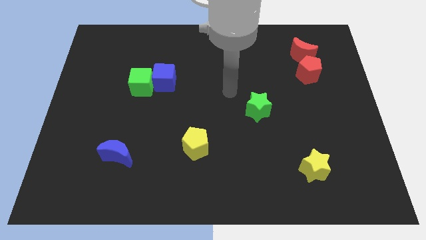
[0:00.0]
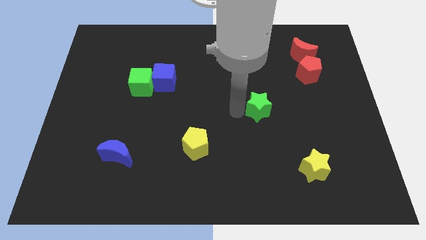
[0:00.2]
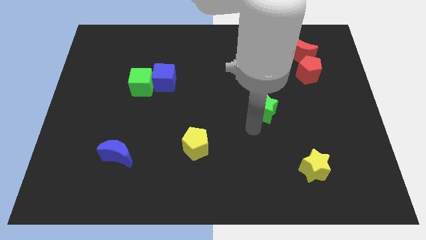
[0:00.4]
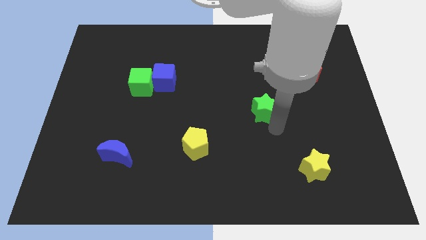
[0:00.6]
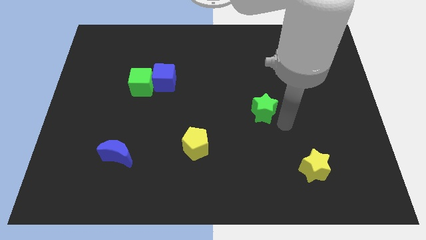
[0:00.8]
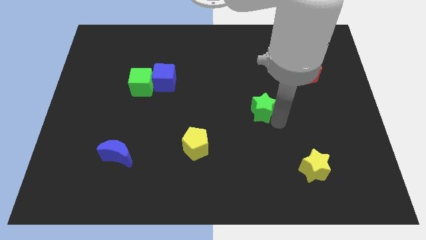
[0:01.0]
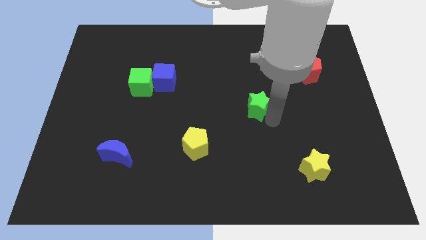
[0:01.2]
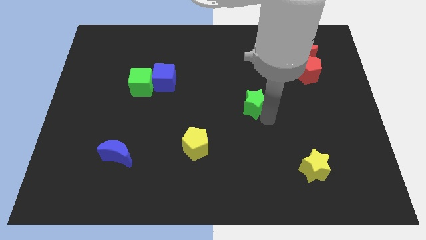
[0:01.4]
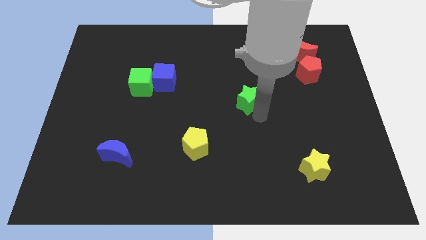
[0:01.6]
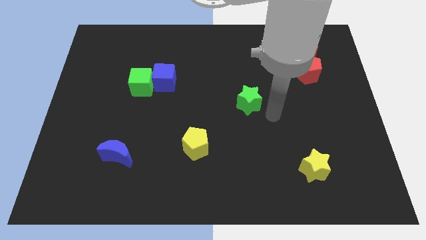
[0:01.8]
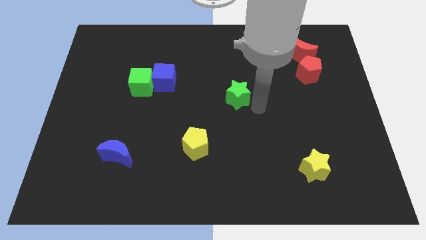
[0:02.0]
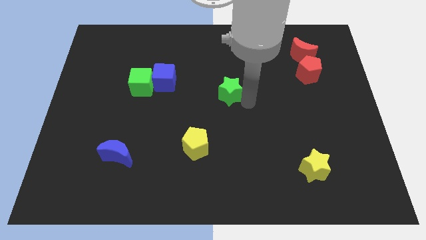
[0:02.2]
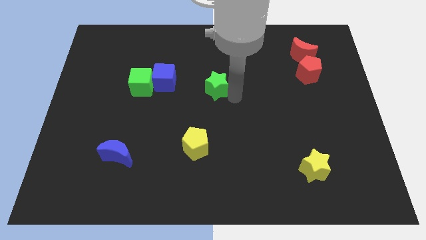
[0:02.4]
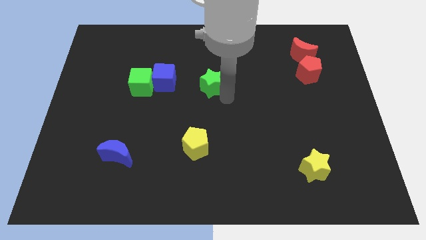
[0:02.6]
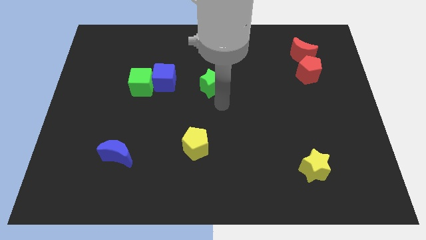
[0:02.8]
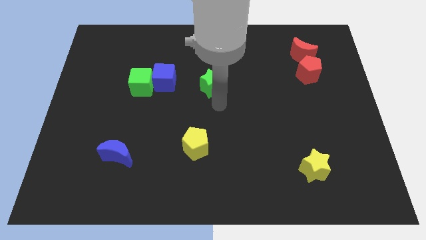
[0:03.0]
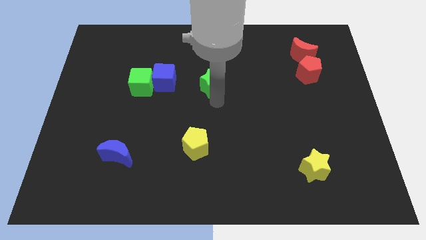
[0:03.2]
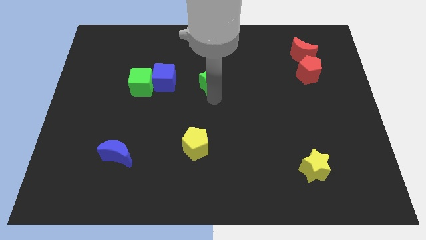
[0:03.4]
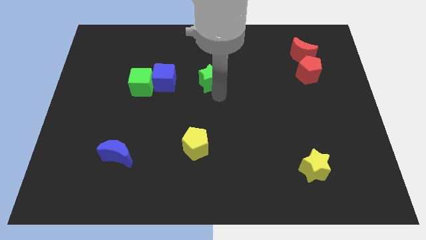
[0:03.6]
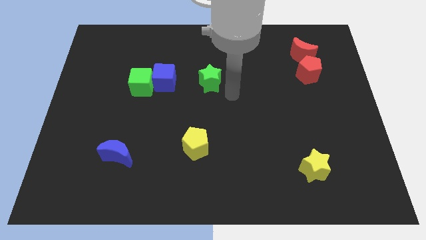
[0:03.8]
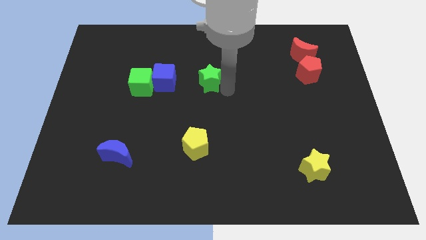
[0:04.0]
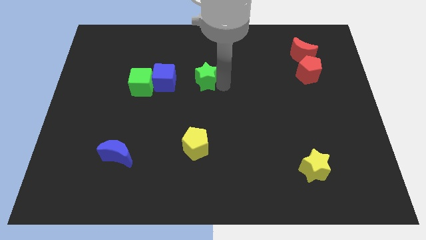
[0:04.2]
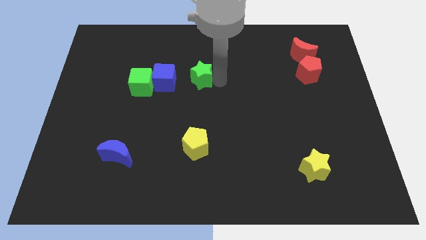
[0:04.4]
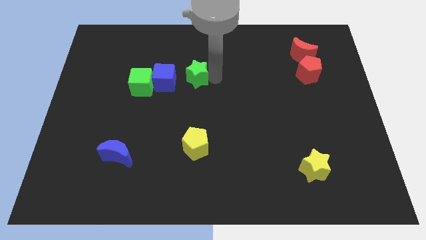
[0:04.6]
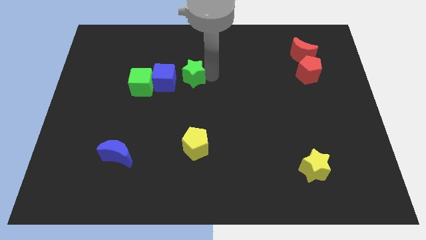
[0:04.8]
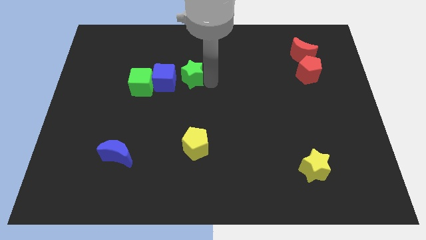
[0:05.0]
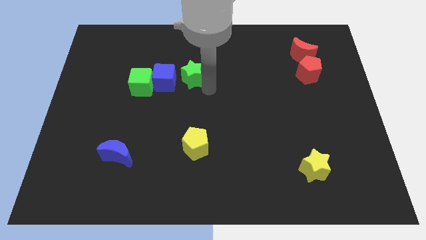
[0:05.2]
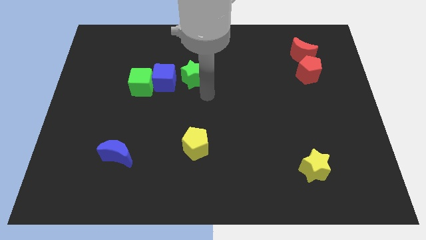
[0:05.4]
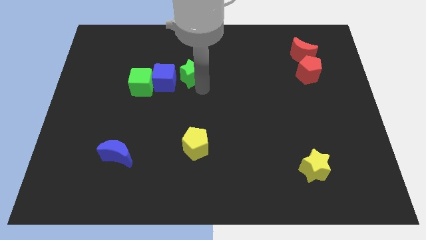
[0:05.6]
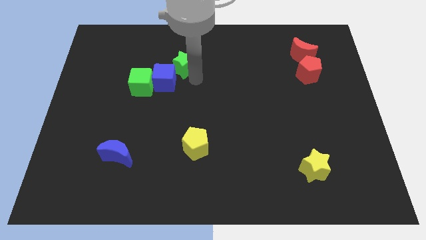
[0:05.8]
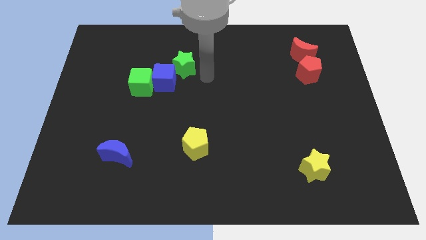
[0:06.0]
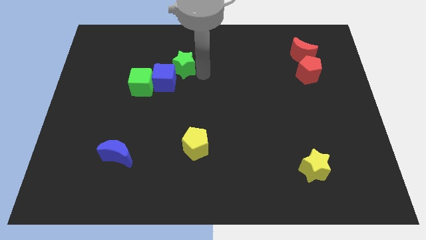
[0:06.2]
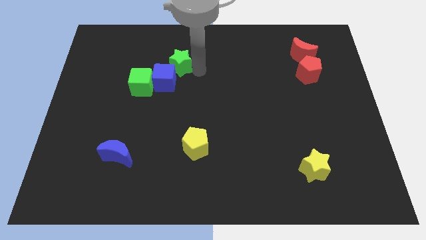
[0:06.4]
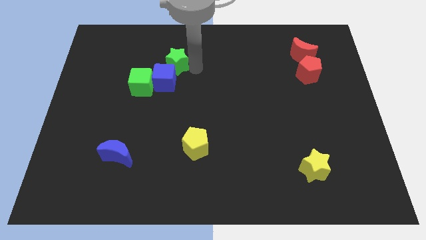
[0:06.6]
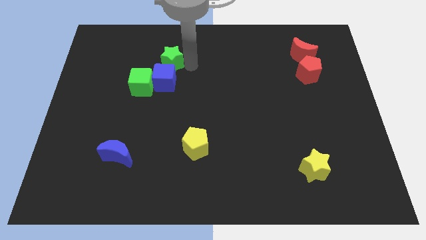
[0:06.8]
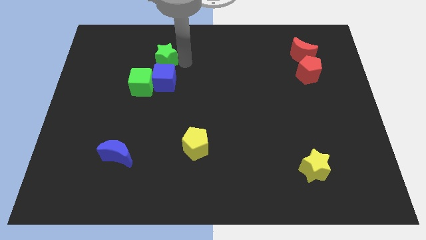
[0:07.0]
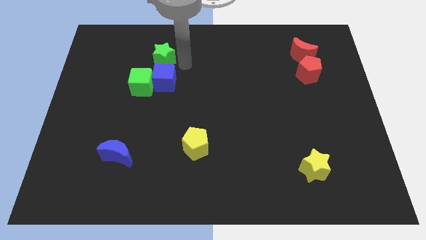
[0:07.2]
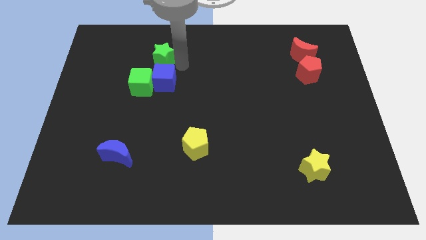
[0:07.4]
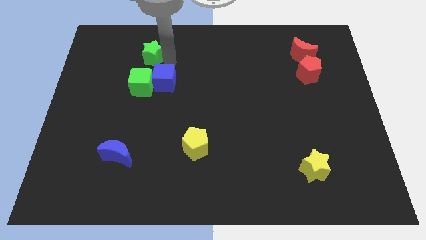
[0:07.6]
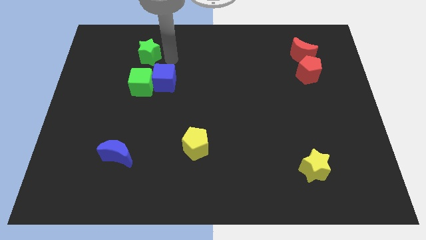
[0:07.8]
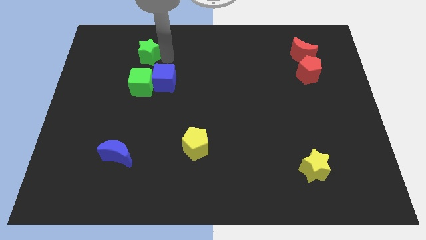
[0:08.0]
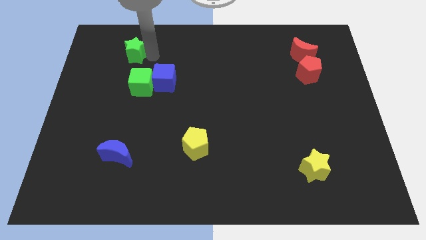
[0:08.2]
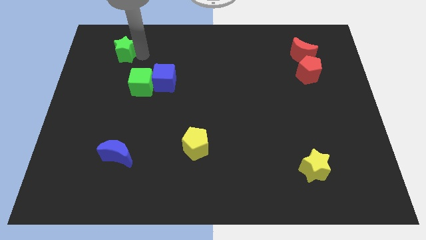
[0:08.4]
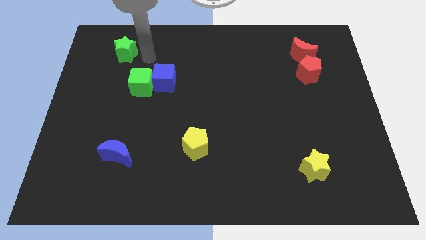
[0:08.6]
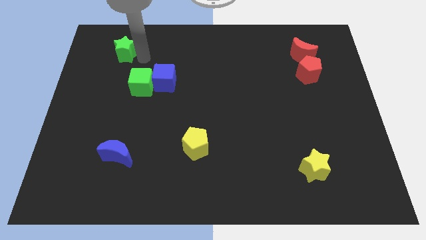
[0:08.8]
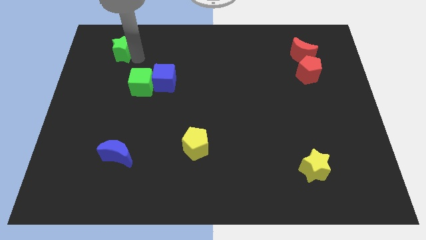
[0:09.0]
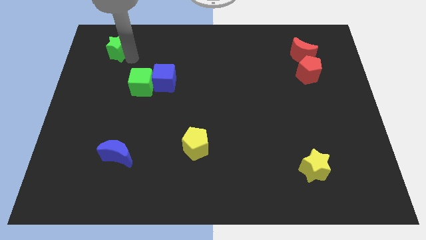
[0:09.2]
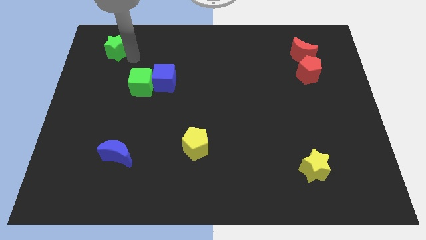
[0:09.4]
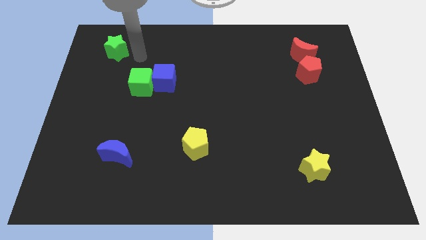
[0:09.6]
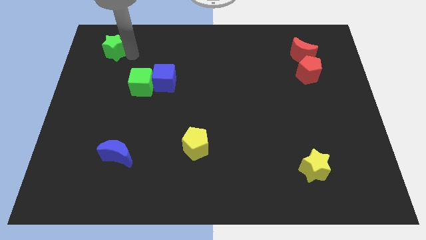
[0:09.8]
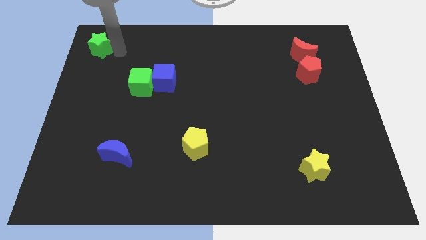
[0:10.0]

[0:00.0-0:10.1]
slide the green star to the top left corner

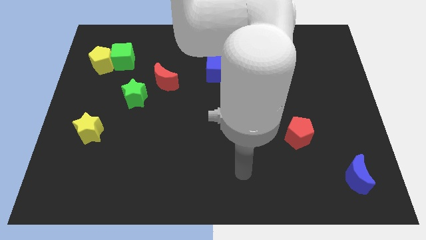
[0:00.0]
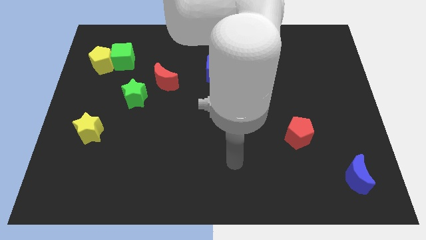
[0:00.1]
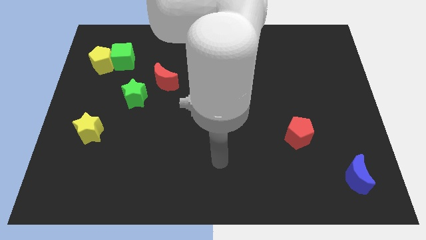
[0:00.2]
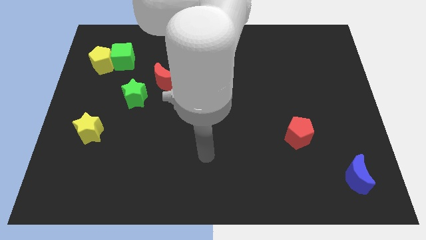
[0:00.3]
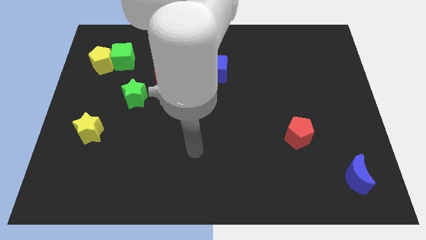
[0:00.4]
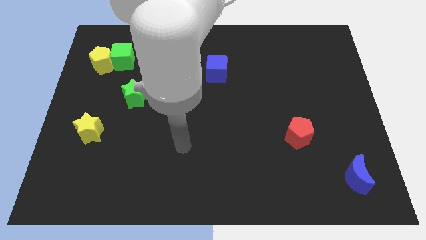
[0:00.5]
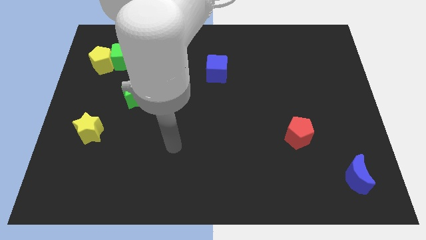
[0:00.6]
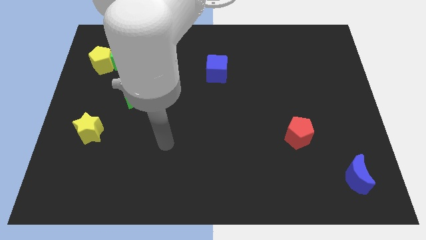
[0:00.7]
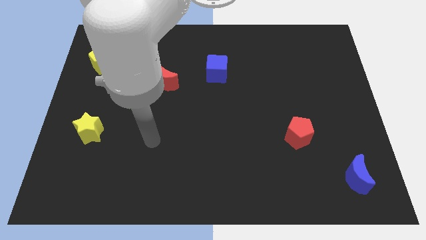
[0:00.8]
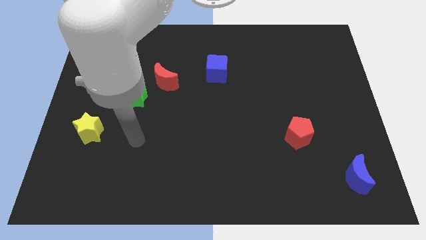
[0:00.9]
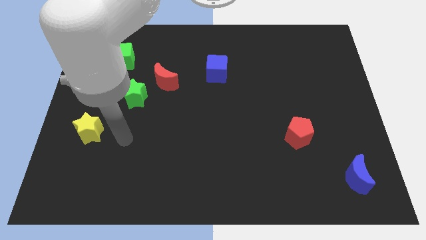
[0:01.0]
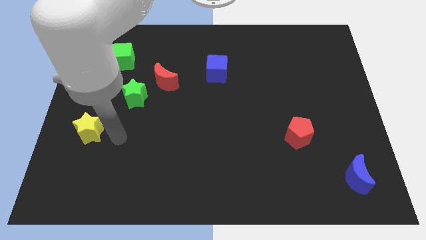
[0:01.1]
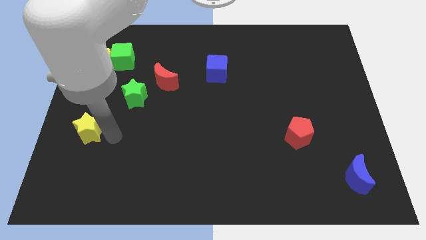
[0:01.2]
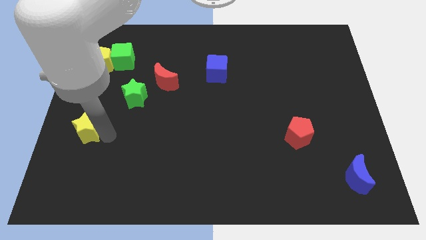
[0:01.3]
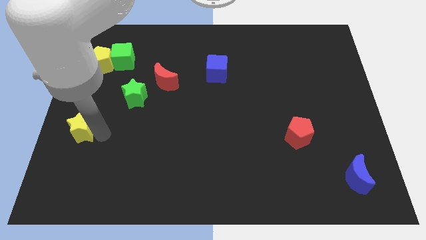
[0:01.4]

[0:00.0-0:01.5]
put the yellow star to the center left
